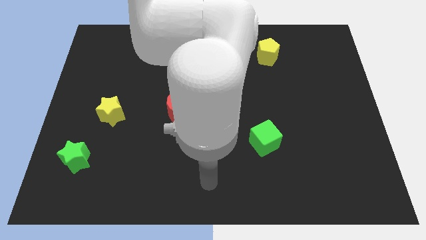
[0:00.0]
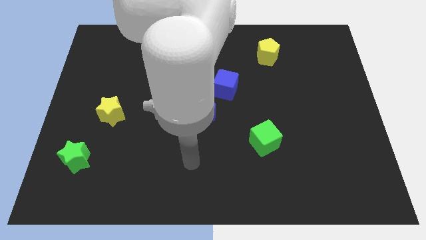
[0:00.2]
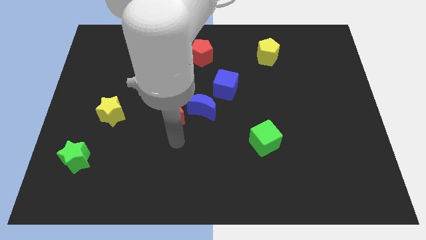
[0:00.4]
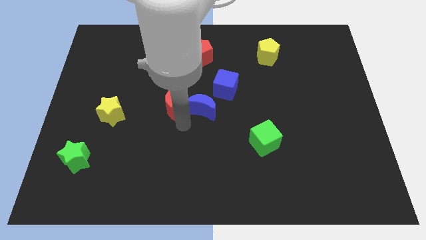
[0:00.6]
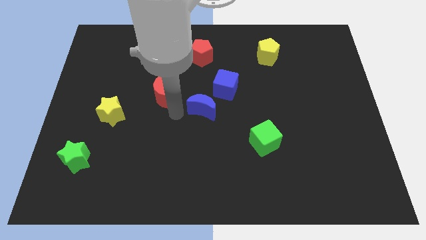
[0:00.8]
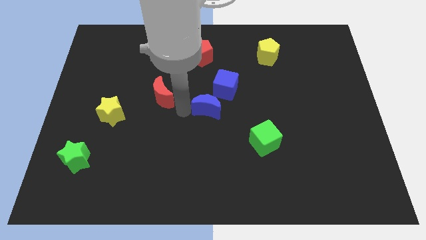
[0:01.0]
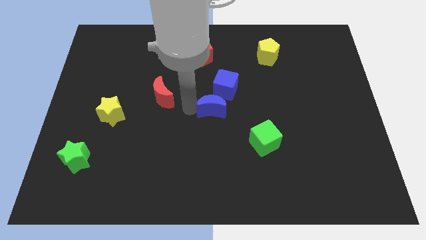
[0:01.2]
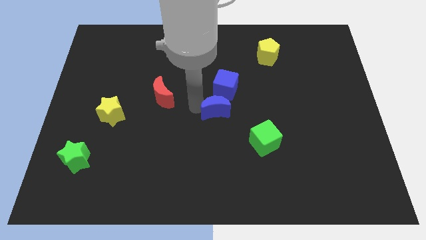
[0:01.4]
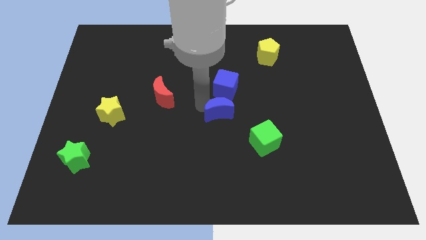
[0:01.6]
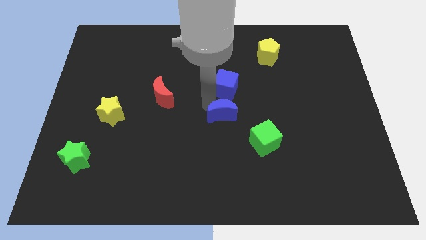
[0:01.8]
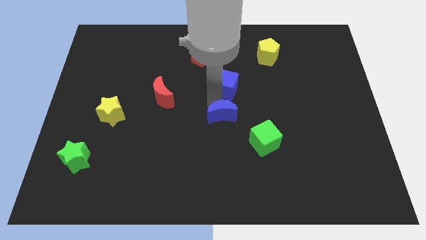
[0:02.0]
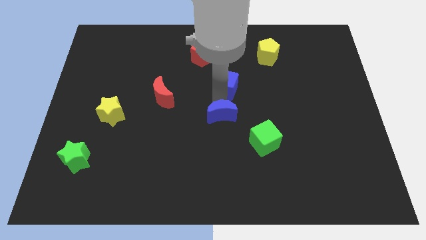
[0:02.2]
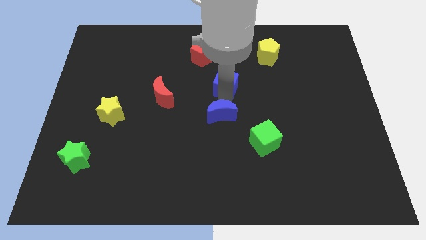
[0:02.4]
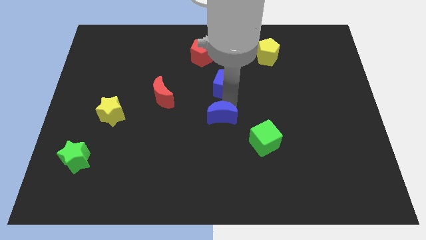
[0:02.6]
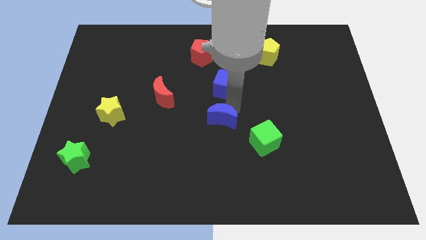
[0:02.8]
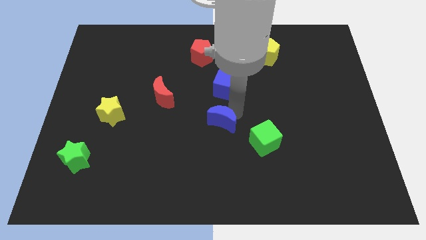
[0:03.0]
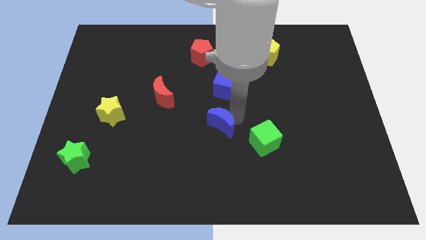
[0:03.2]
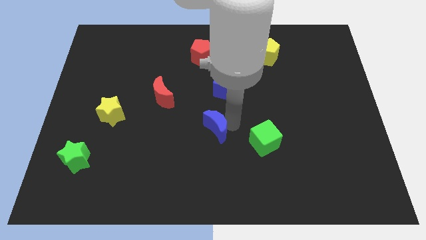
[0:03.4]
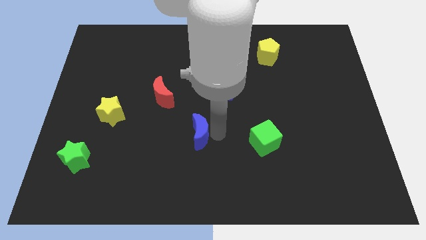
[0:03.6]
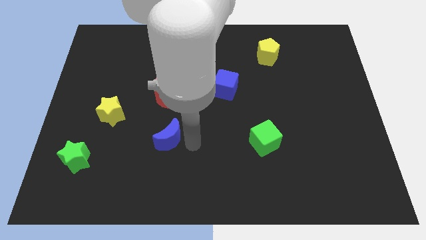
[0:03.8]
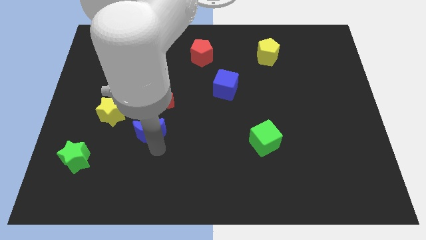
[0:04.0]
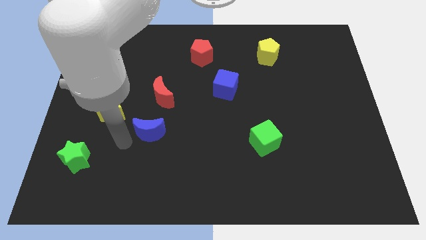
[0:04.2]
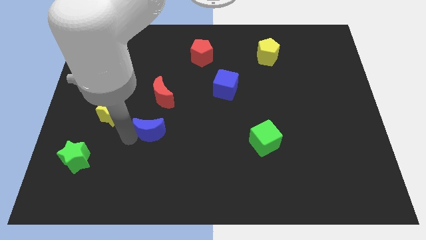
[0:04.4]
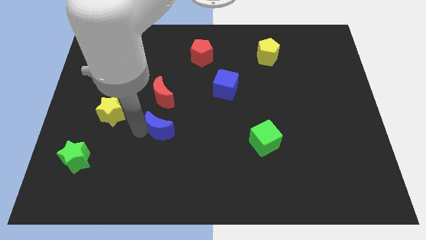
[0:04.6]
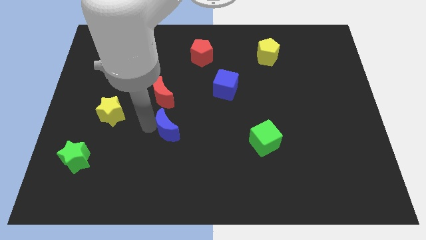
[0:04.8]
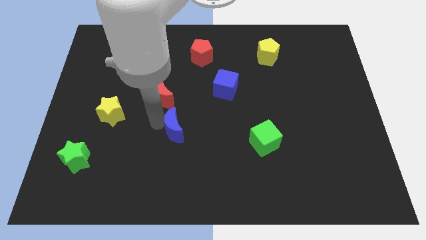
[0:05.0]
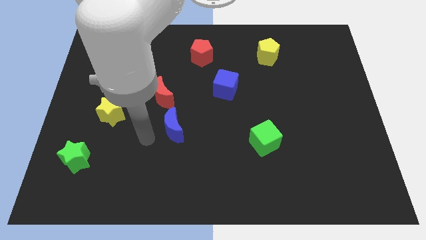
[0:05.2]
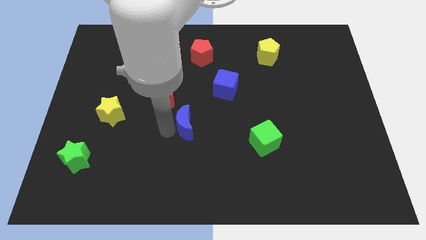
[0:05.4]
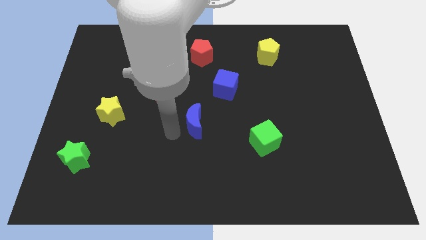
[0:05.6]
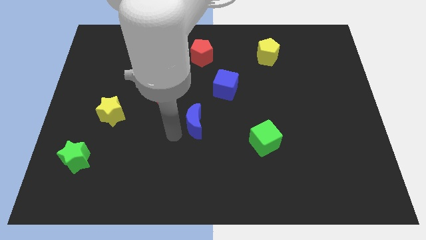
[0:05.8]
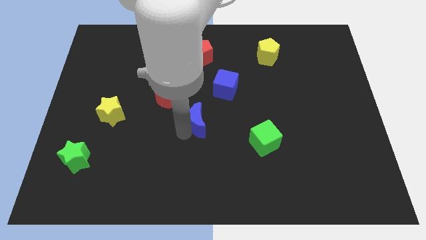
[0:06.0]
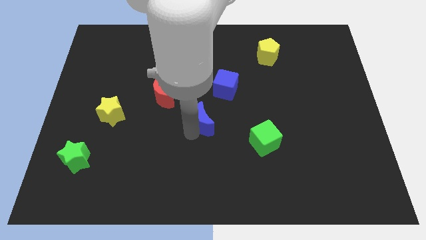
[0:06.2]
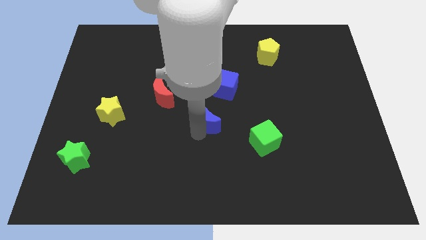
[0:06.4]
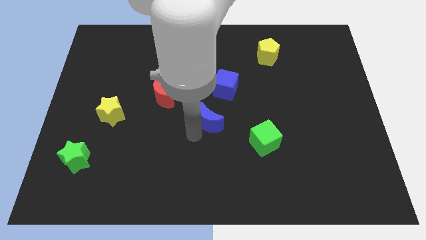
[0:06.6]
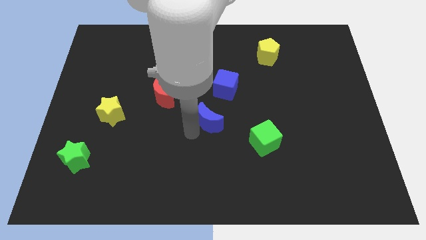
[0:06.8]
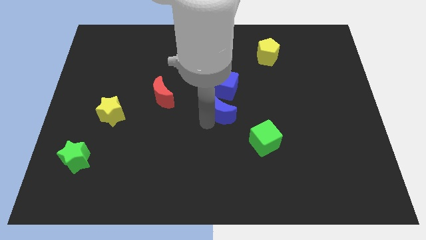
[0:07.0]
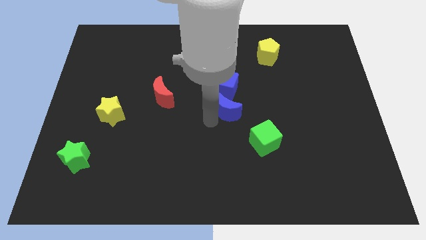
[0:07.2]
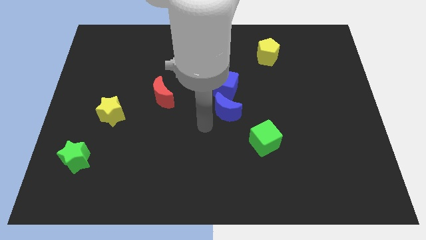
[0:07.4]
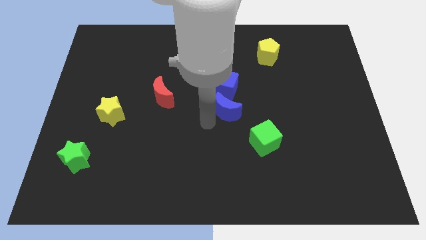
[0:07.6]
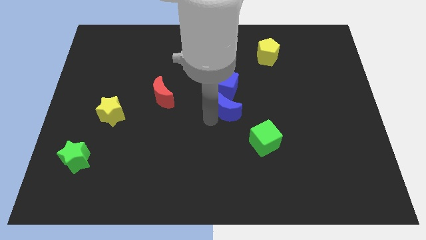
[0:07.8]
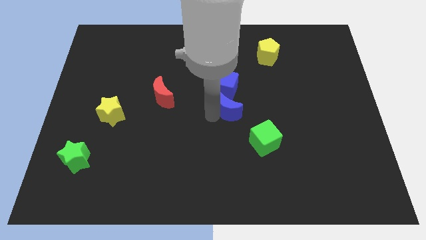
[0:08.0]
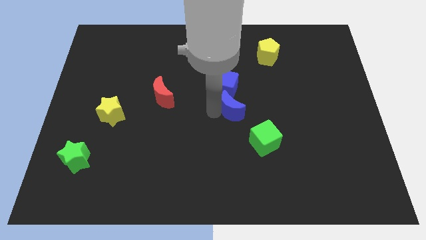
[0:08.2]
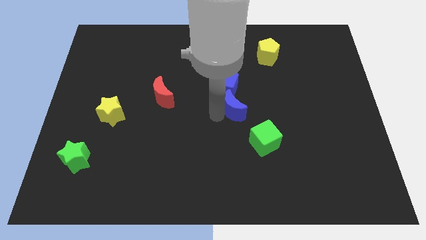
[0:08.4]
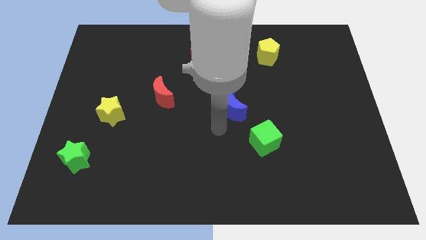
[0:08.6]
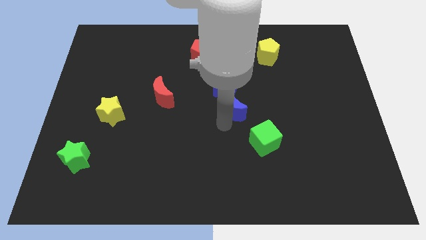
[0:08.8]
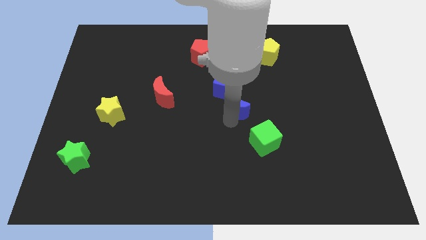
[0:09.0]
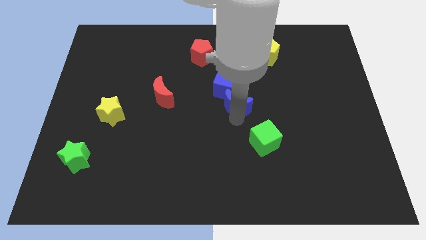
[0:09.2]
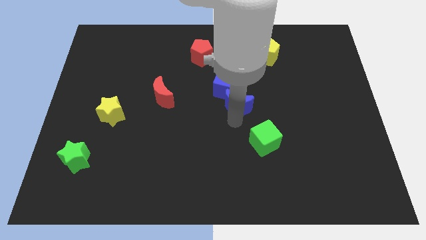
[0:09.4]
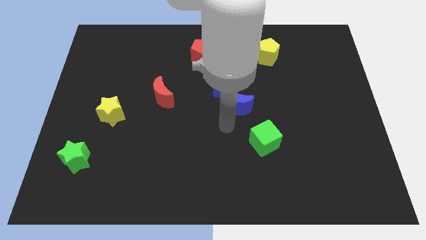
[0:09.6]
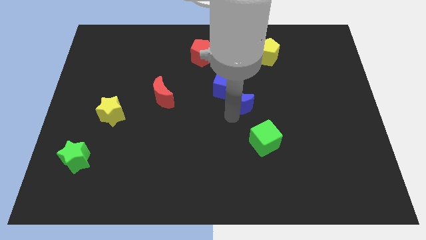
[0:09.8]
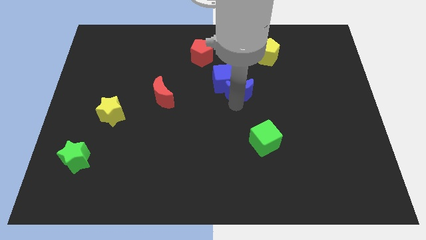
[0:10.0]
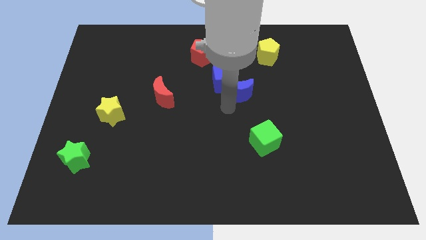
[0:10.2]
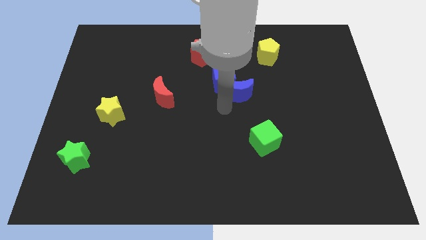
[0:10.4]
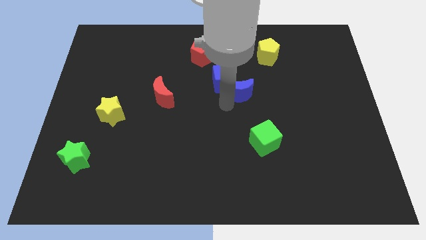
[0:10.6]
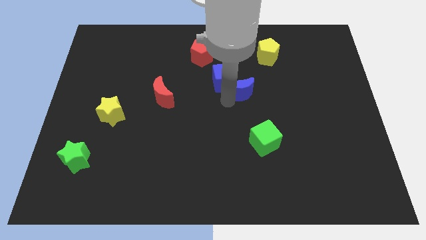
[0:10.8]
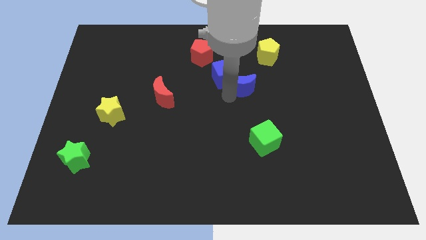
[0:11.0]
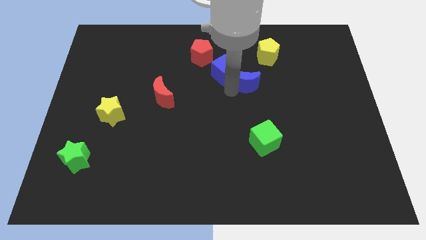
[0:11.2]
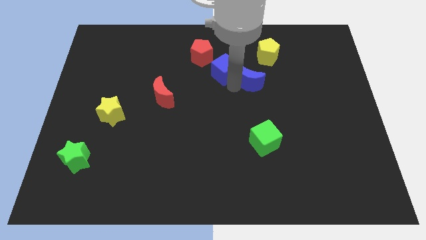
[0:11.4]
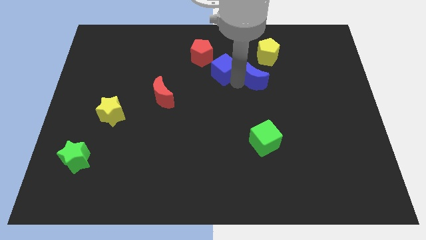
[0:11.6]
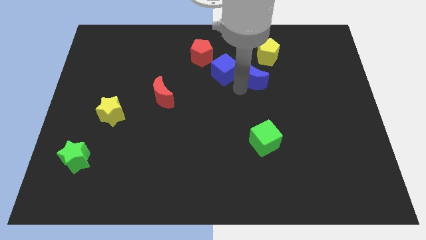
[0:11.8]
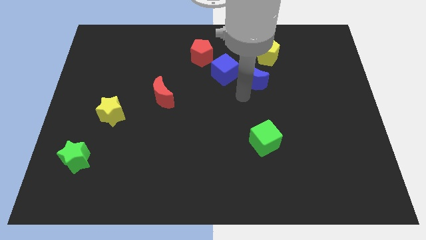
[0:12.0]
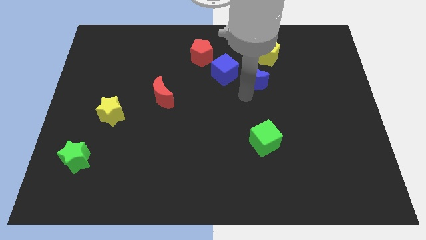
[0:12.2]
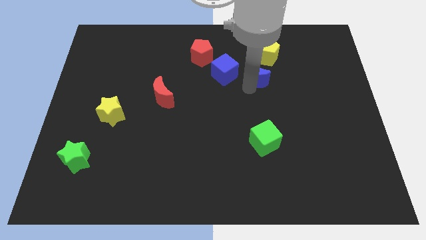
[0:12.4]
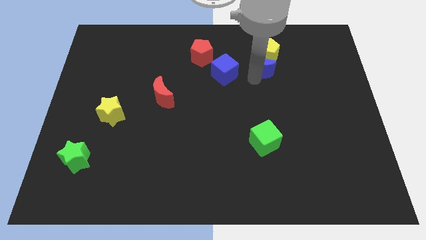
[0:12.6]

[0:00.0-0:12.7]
push the blue moon to the yellow pentagon

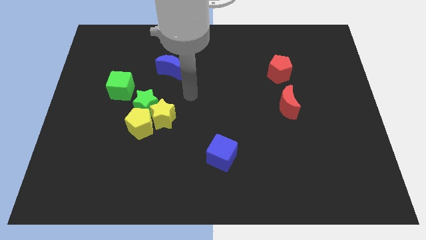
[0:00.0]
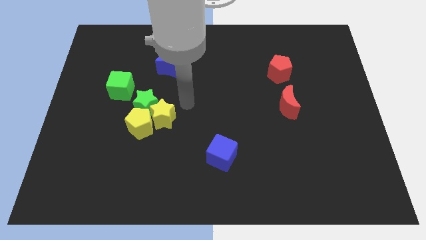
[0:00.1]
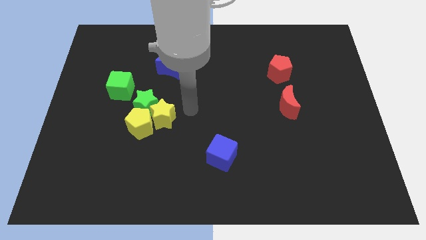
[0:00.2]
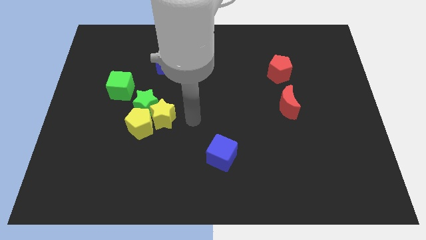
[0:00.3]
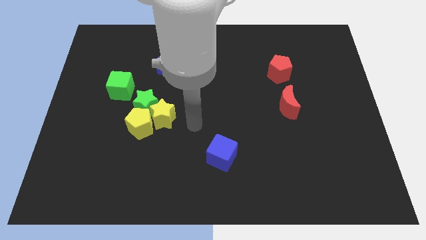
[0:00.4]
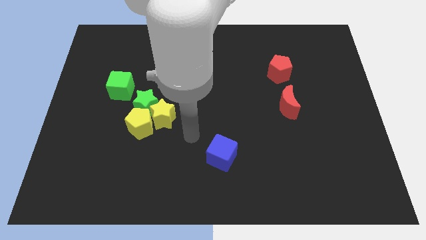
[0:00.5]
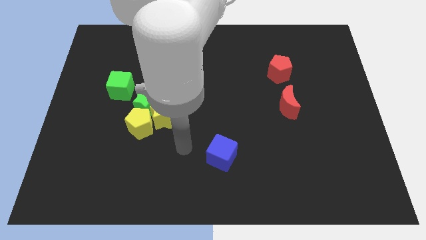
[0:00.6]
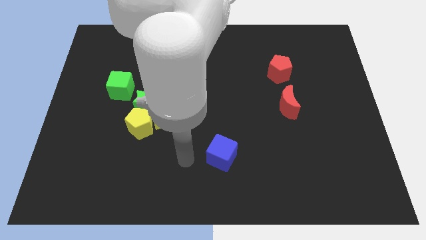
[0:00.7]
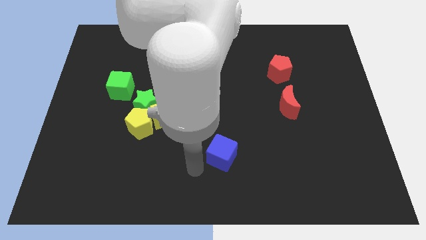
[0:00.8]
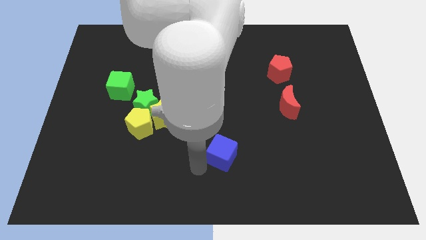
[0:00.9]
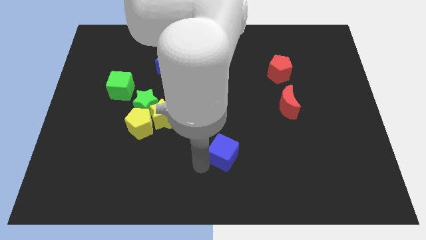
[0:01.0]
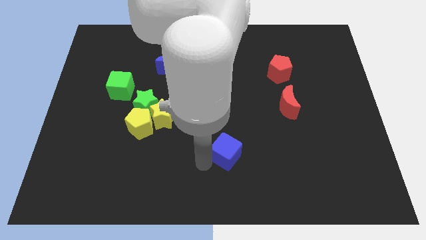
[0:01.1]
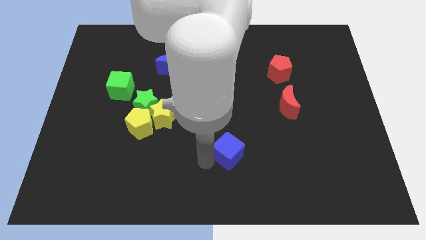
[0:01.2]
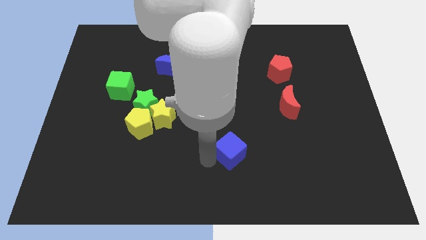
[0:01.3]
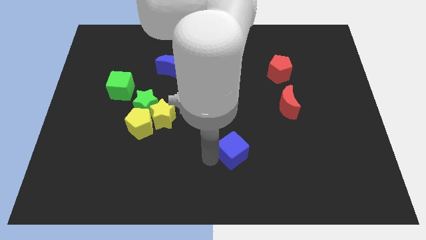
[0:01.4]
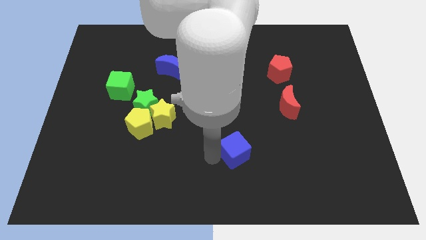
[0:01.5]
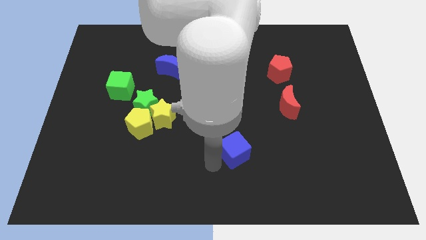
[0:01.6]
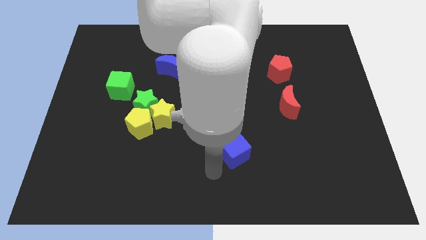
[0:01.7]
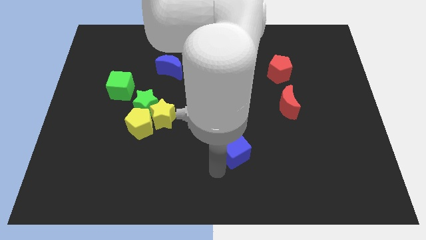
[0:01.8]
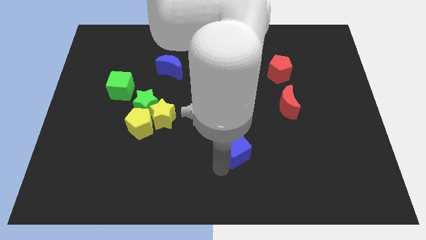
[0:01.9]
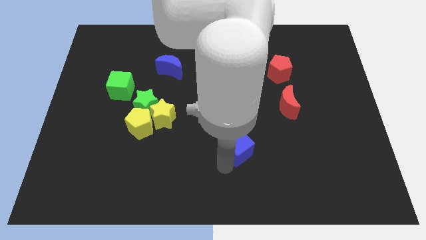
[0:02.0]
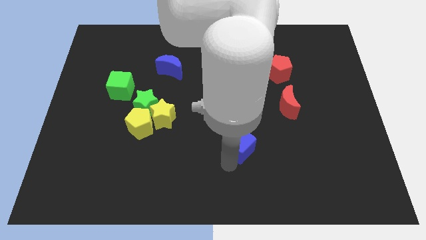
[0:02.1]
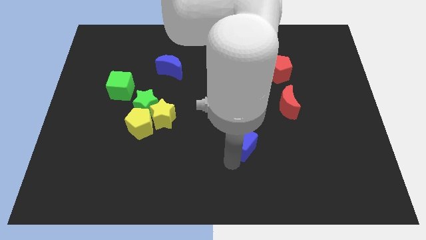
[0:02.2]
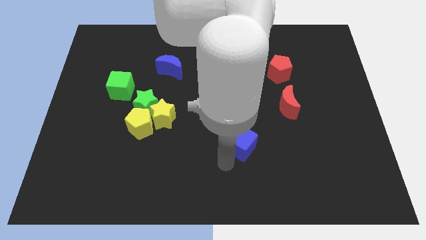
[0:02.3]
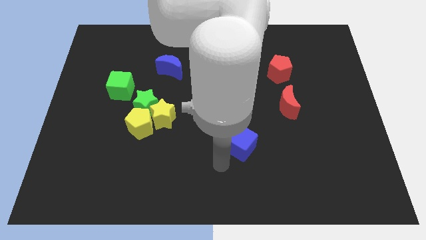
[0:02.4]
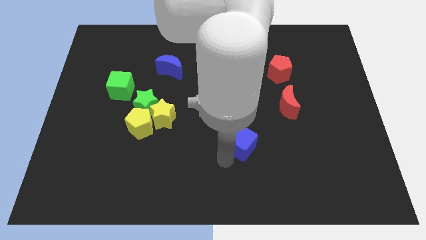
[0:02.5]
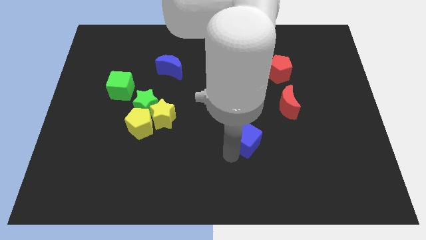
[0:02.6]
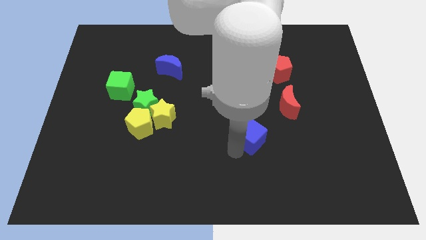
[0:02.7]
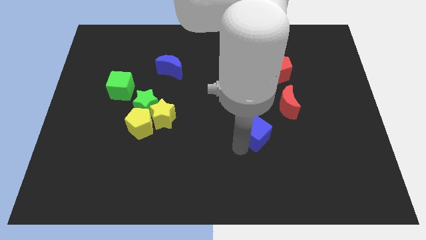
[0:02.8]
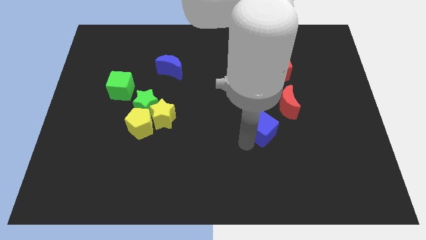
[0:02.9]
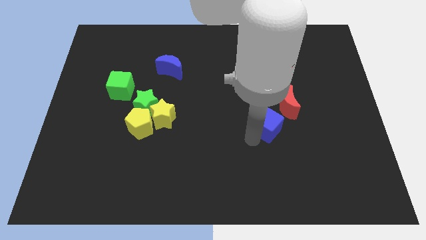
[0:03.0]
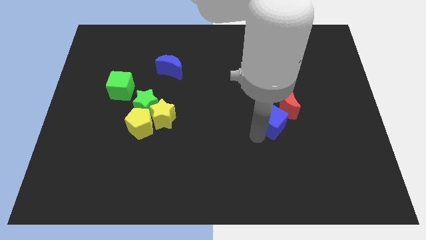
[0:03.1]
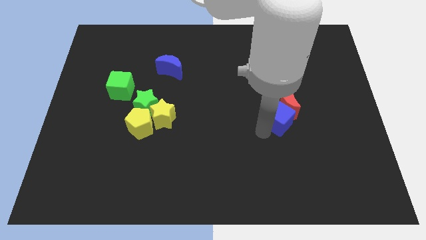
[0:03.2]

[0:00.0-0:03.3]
push the blue cube close to the red moon
